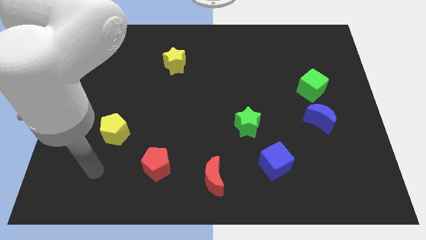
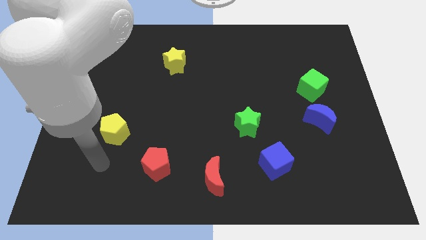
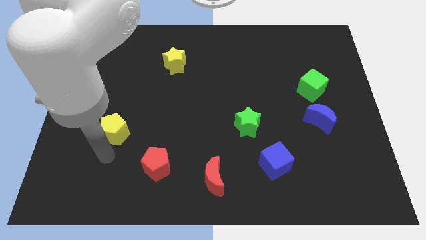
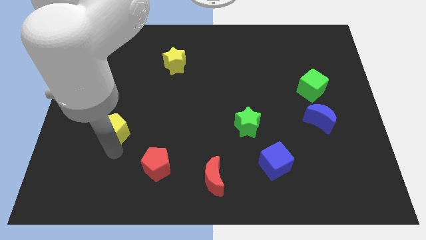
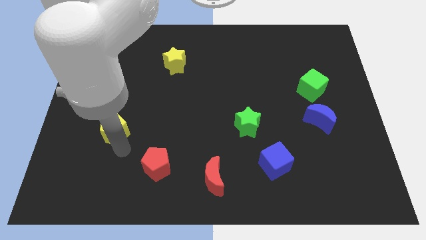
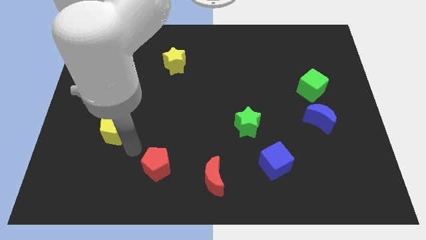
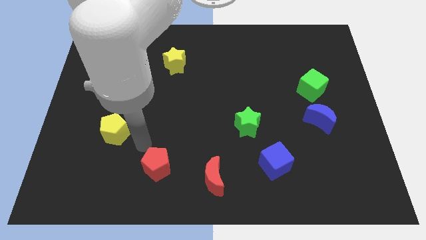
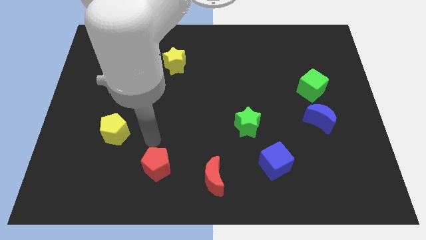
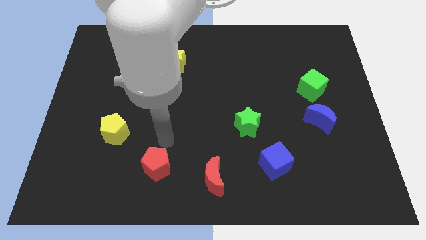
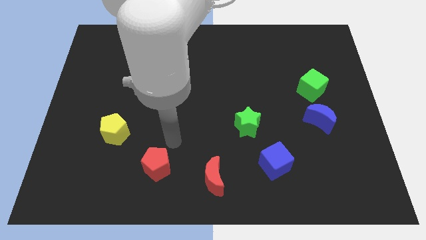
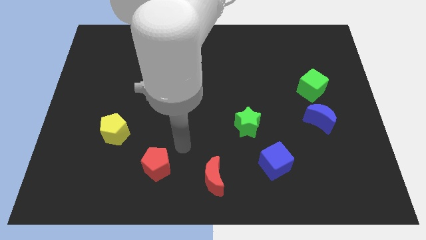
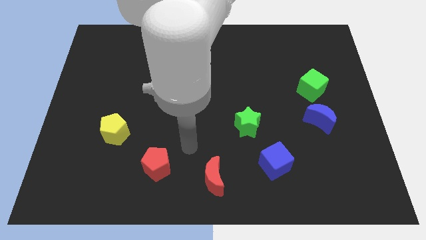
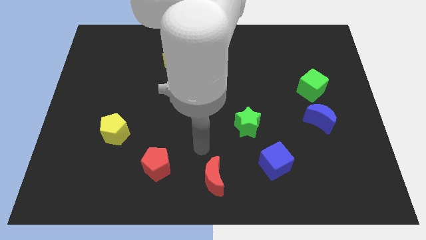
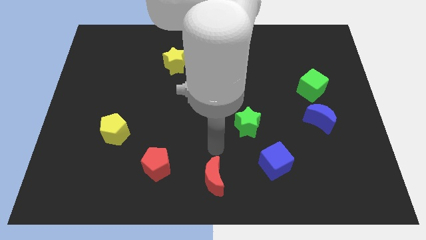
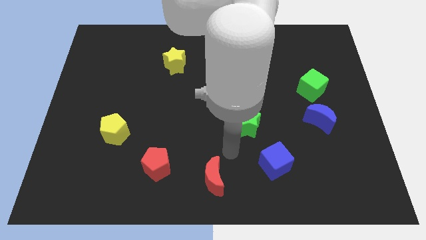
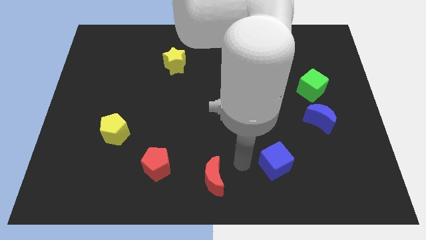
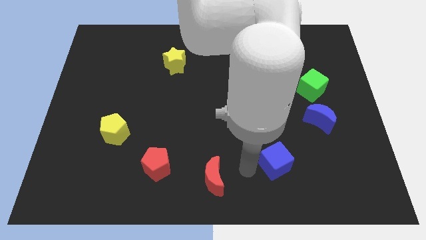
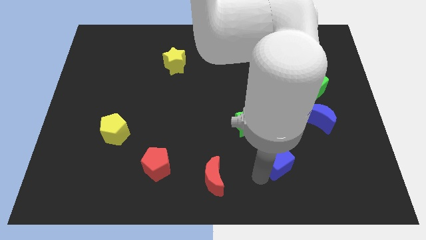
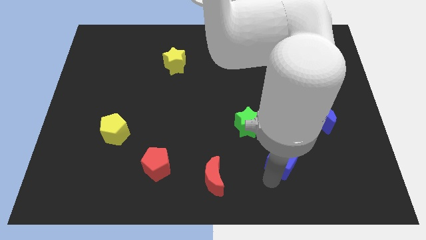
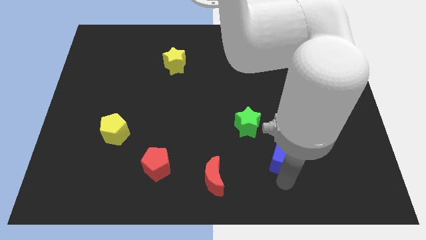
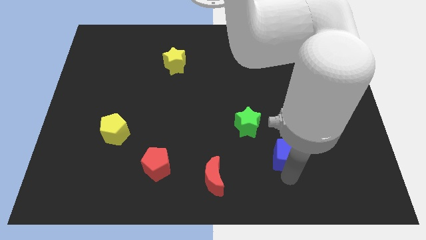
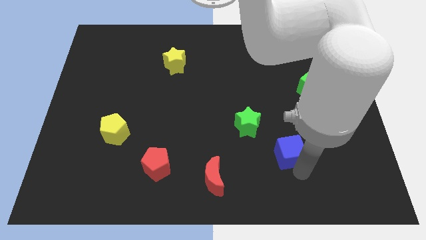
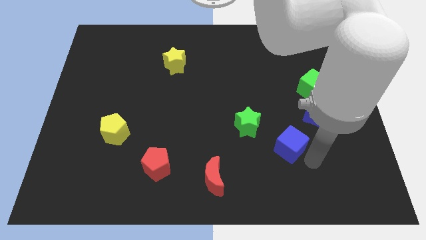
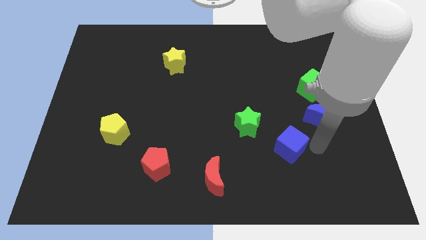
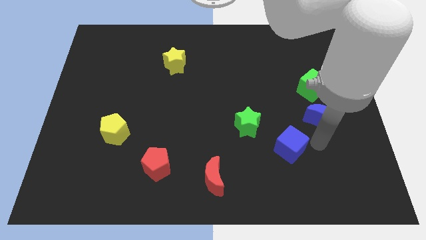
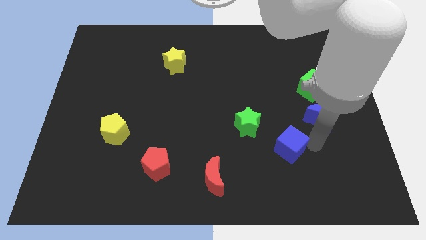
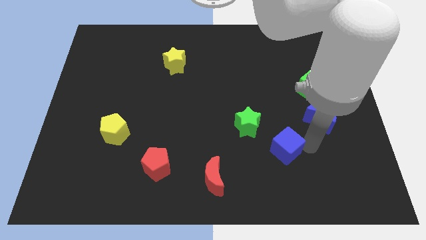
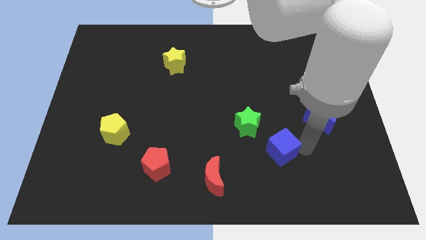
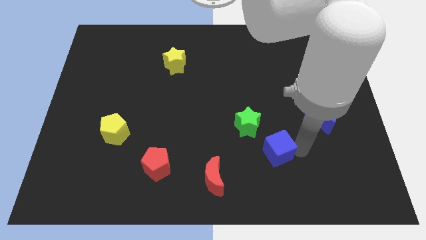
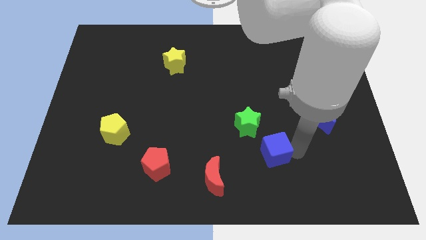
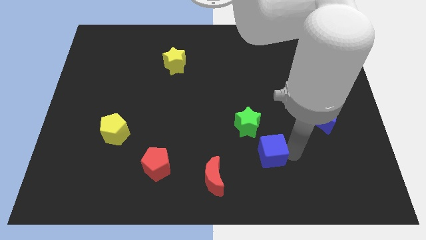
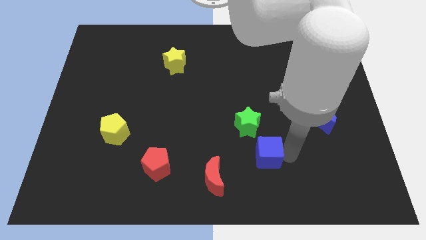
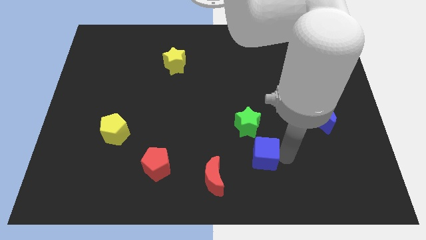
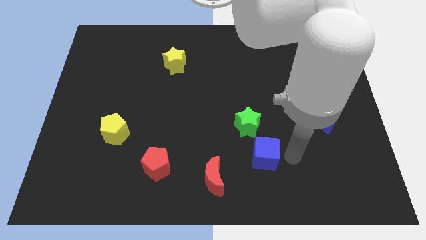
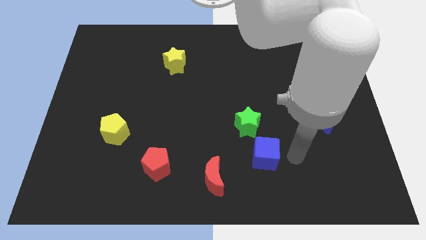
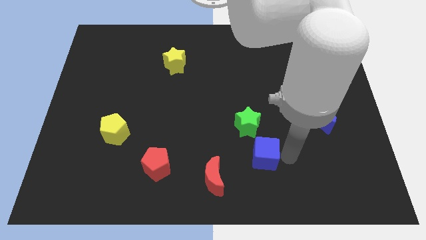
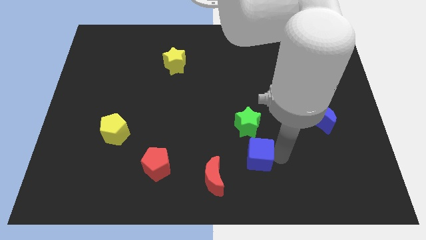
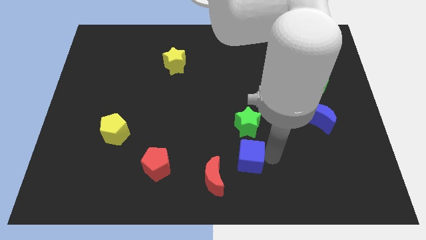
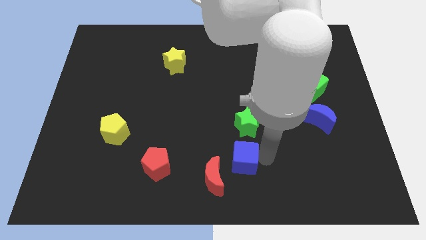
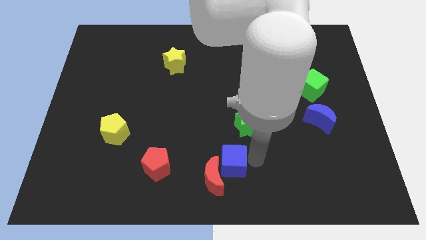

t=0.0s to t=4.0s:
slide the blue cube left somewhat

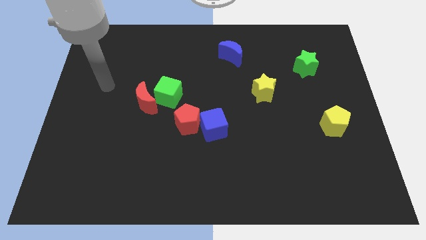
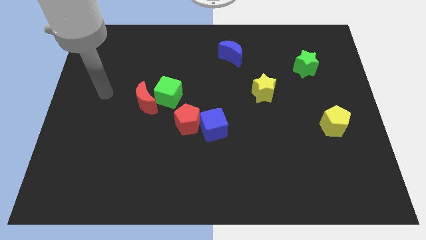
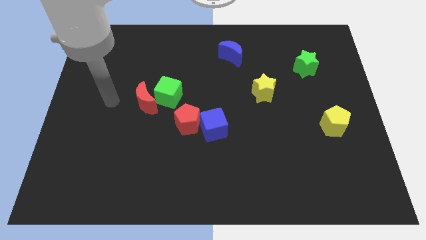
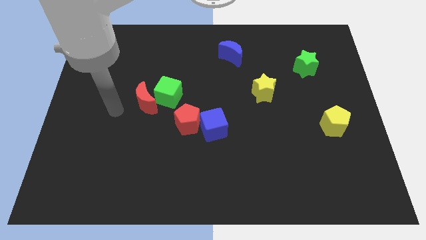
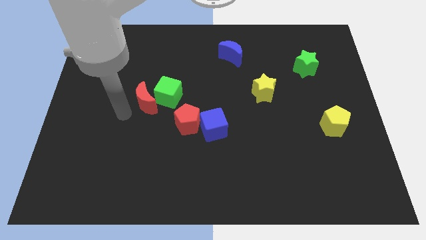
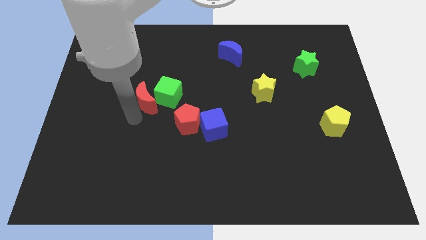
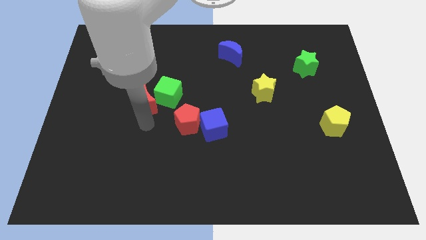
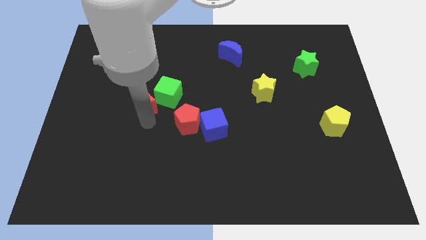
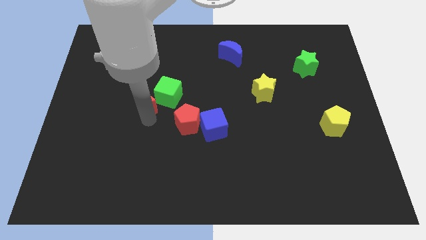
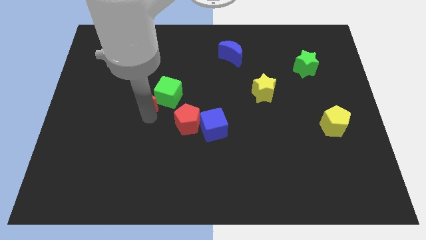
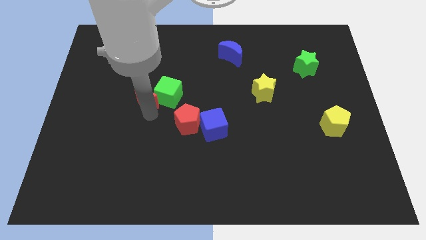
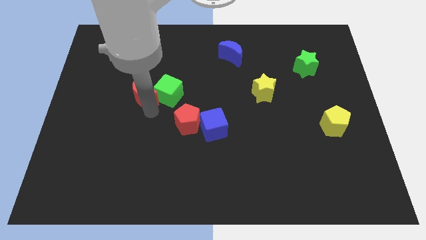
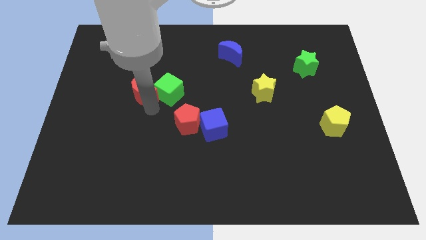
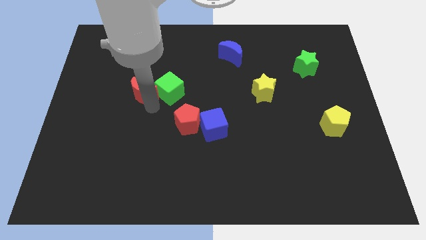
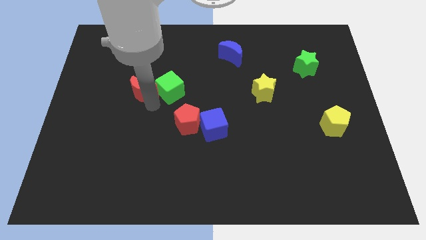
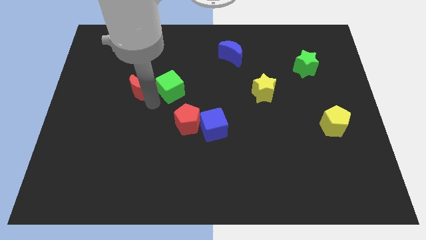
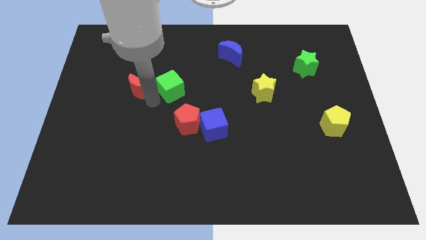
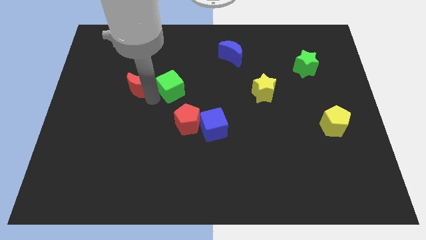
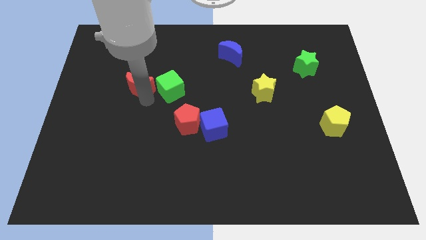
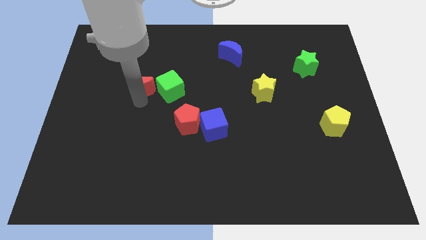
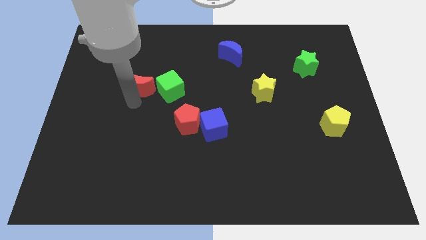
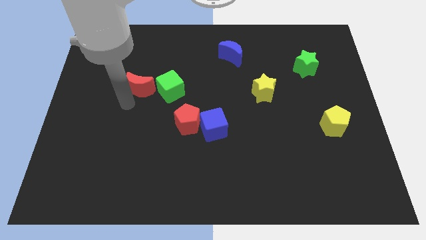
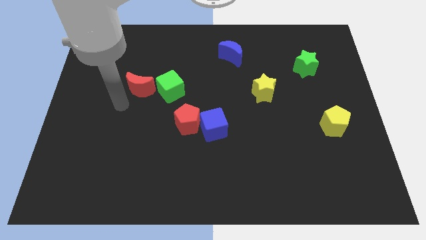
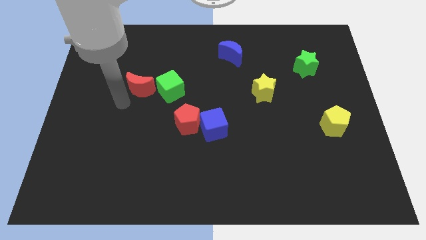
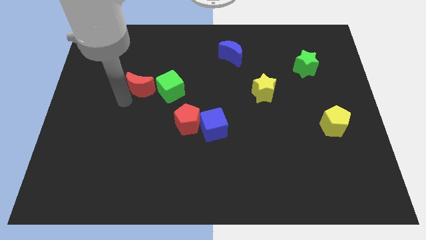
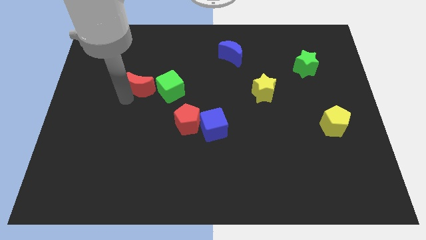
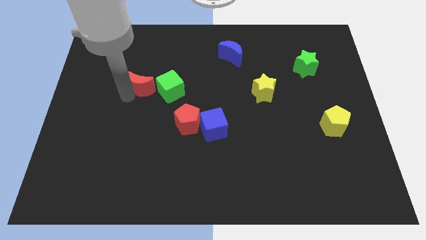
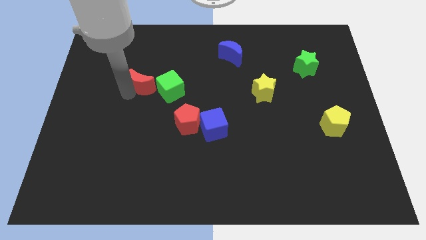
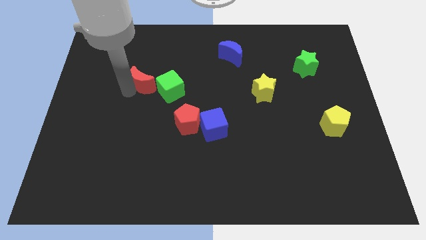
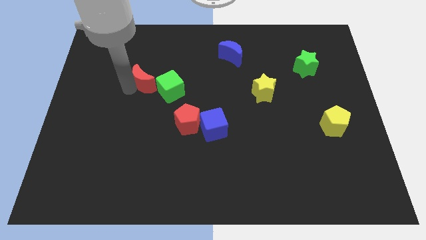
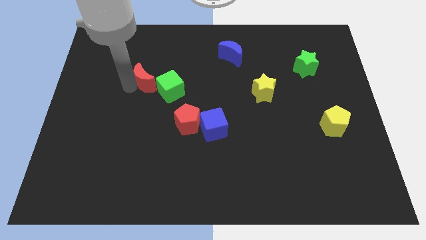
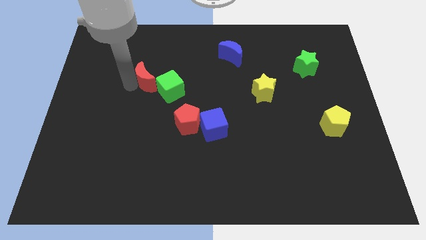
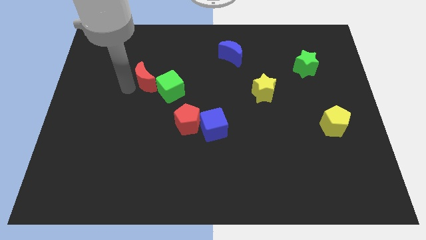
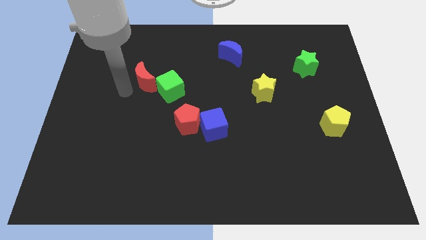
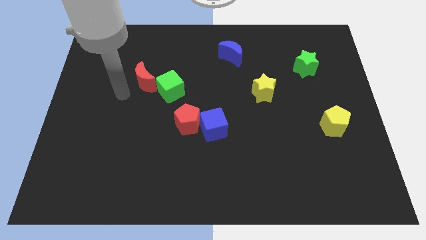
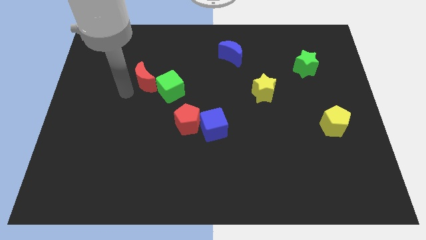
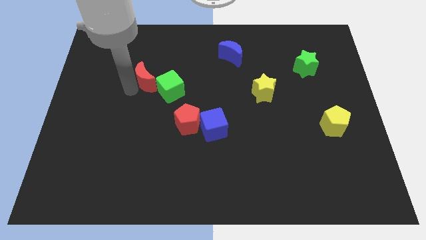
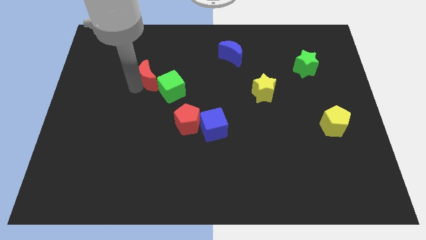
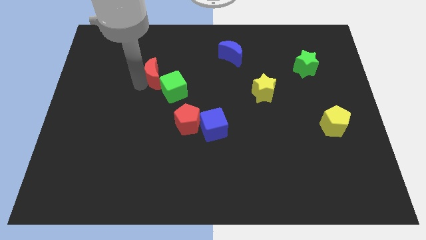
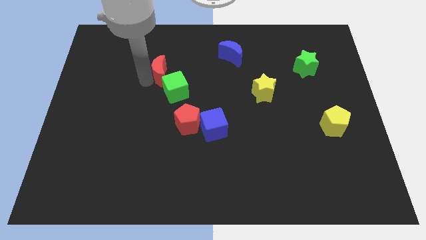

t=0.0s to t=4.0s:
slide the red moon somewhat diagonally upwards and to the right

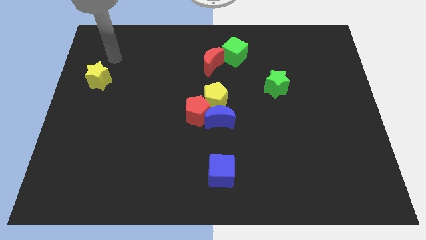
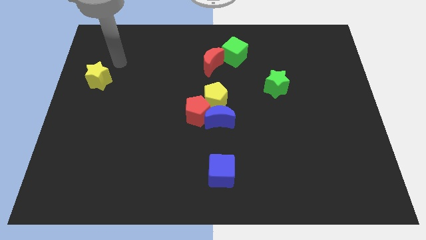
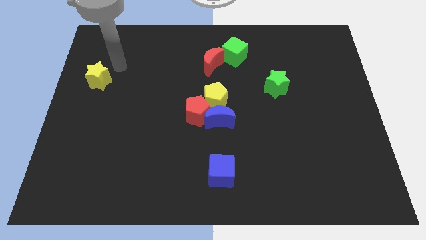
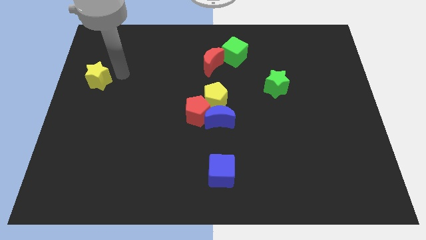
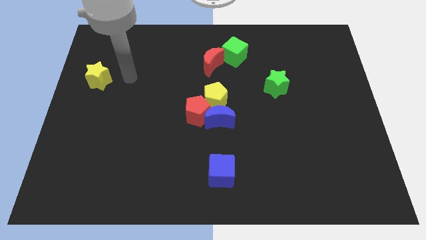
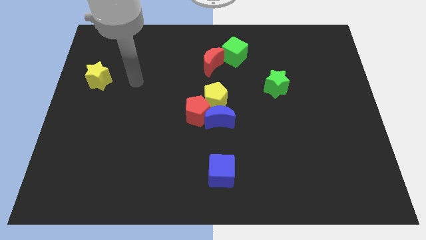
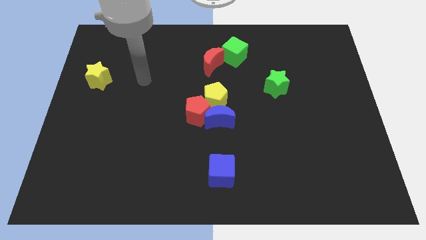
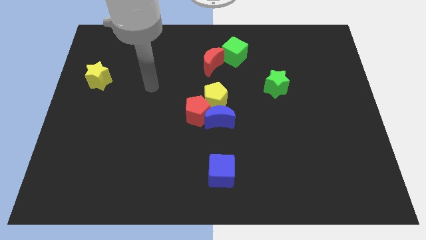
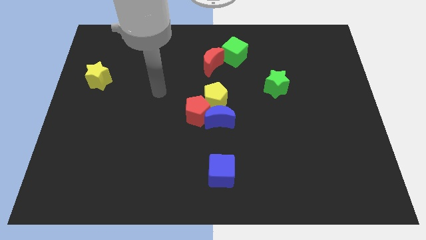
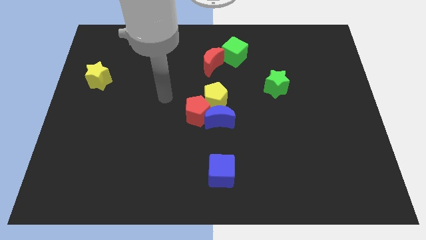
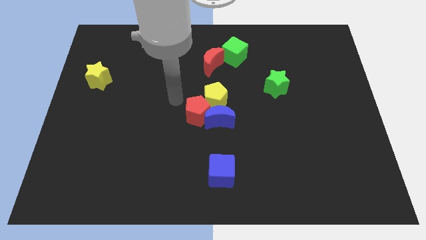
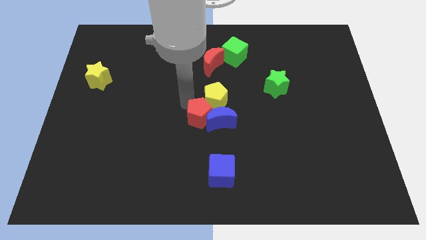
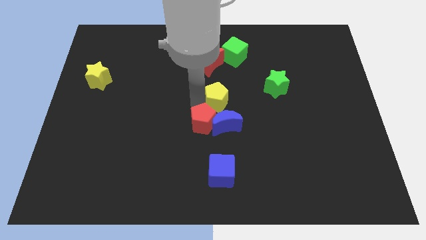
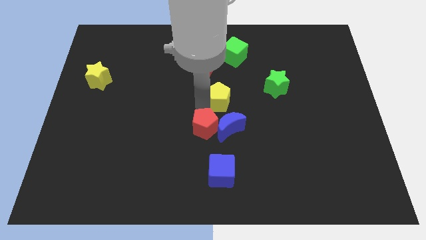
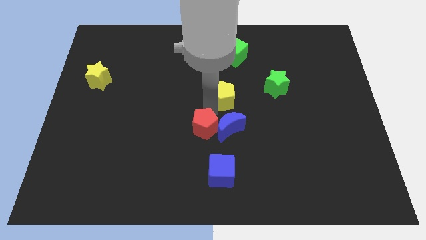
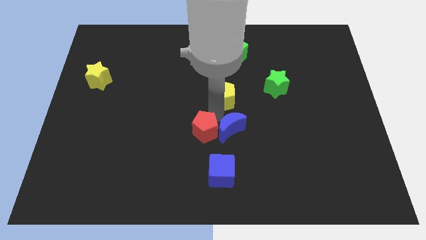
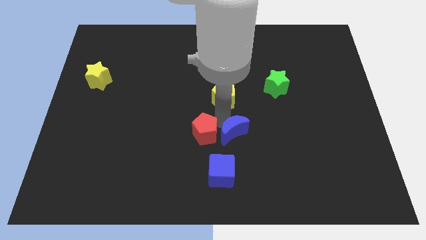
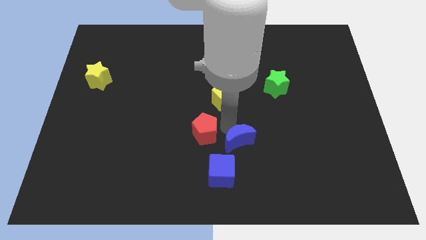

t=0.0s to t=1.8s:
move the blue moon a bit downwards and to the right
